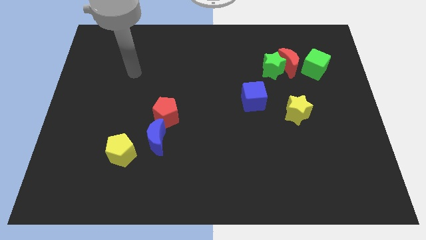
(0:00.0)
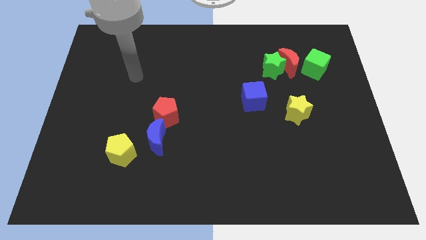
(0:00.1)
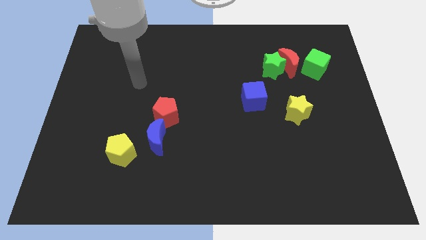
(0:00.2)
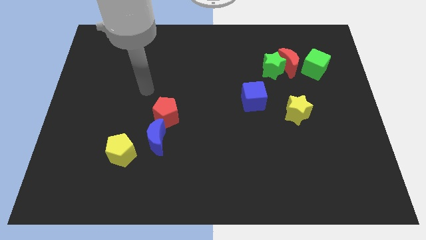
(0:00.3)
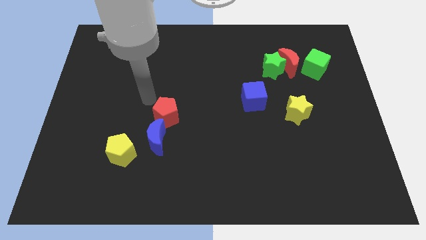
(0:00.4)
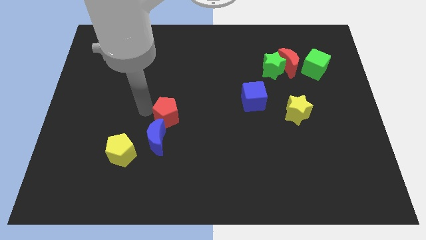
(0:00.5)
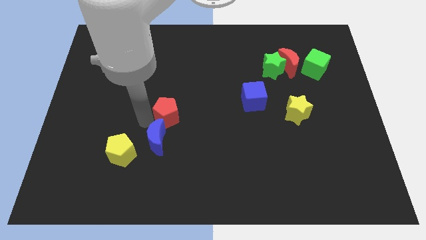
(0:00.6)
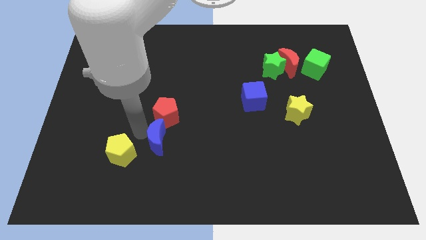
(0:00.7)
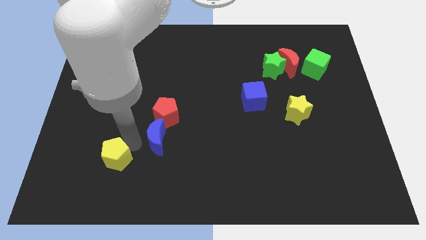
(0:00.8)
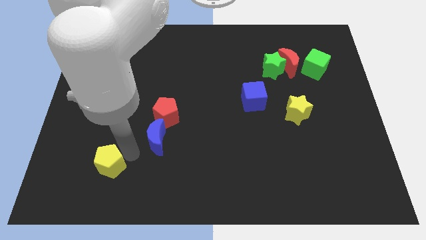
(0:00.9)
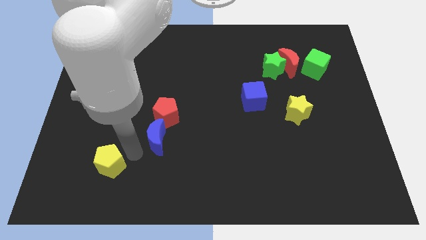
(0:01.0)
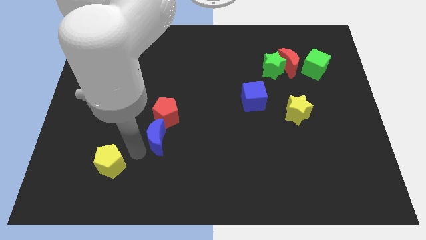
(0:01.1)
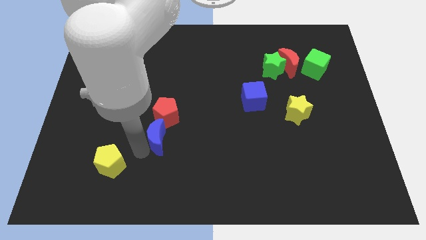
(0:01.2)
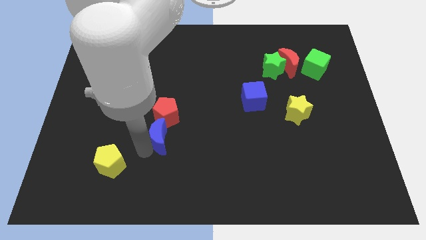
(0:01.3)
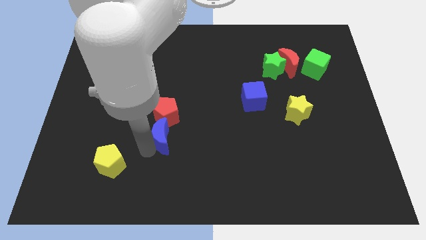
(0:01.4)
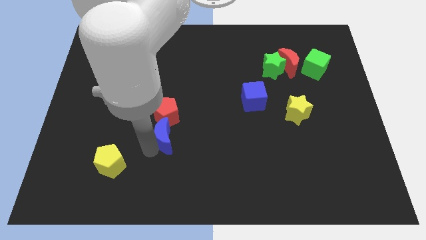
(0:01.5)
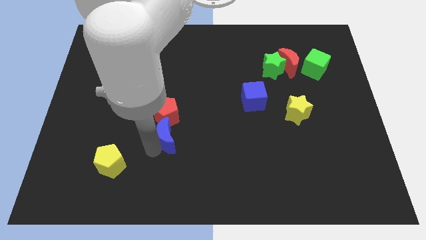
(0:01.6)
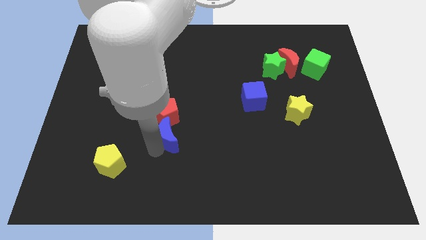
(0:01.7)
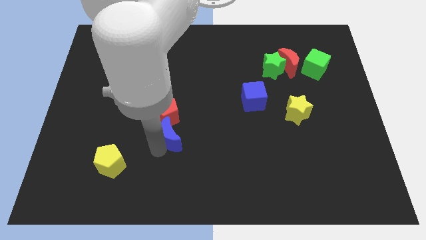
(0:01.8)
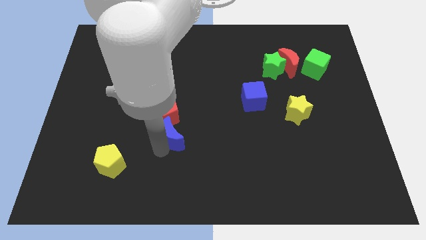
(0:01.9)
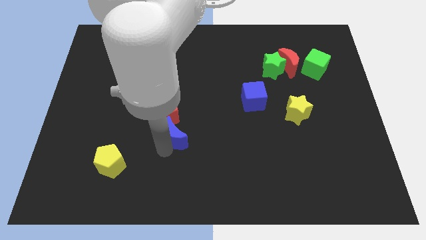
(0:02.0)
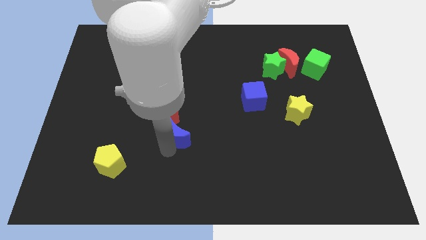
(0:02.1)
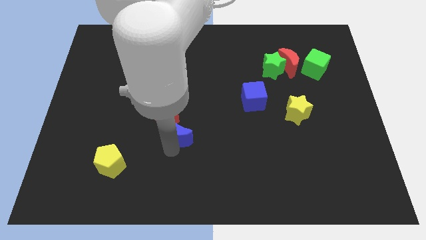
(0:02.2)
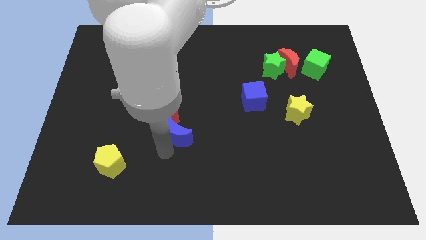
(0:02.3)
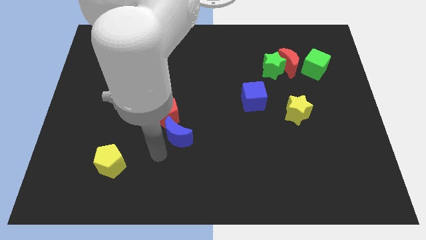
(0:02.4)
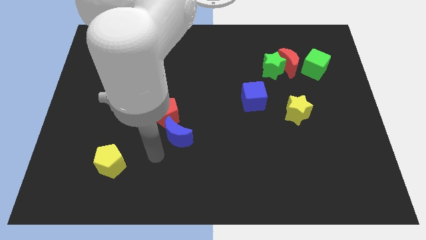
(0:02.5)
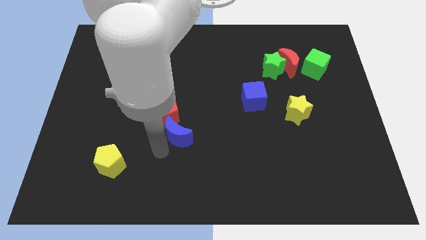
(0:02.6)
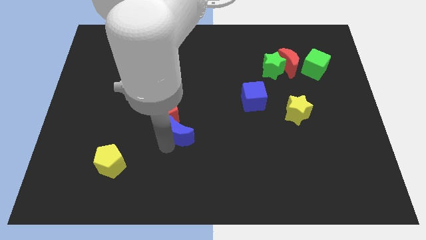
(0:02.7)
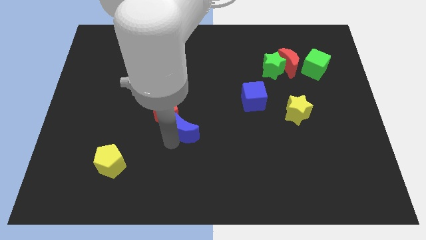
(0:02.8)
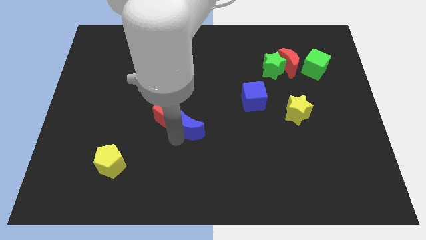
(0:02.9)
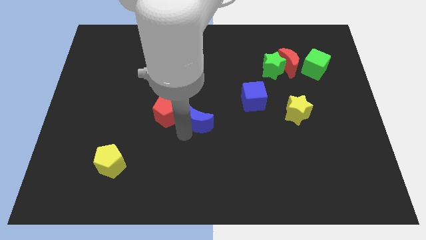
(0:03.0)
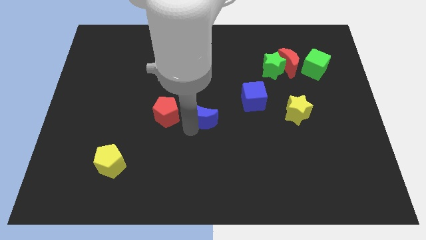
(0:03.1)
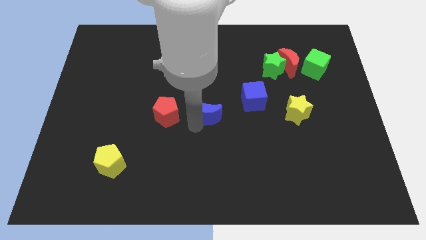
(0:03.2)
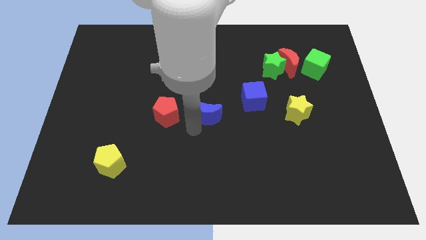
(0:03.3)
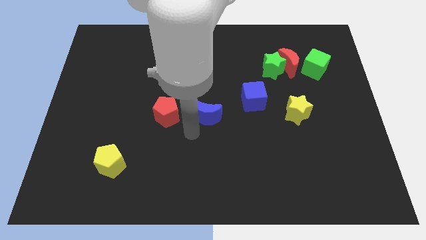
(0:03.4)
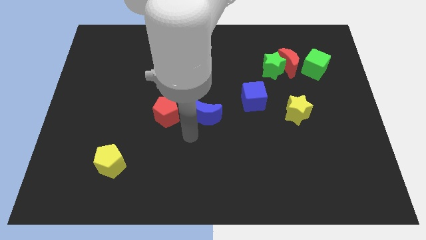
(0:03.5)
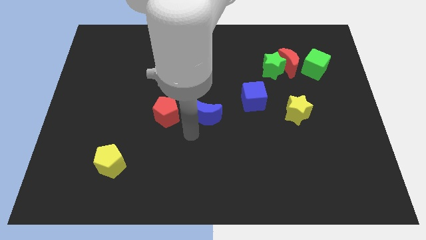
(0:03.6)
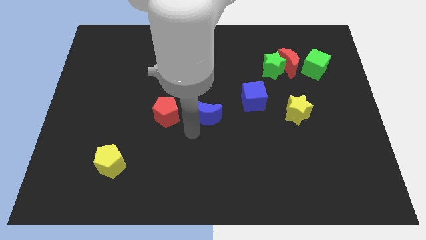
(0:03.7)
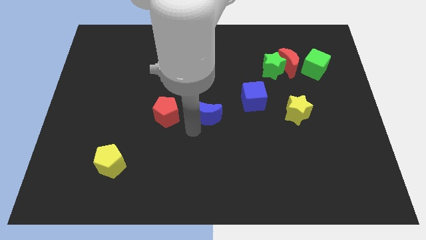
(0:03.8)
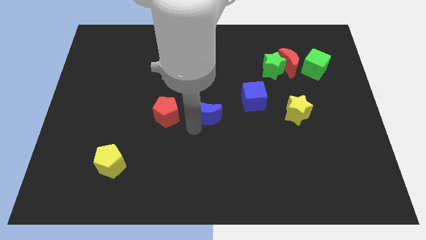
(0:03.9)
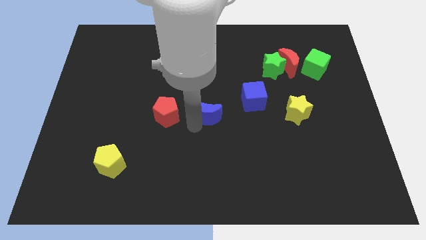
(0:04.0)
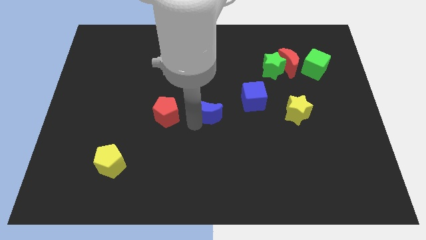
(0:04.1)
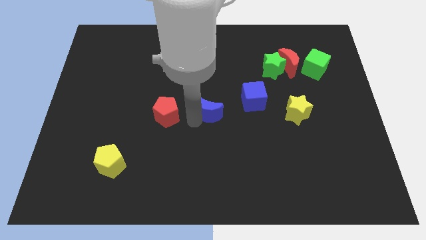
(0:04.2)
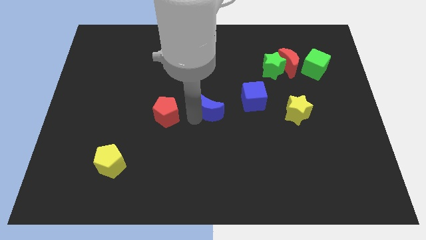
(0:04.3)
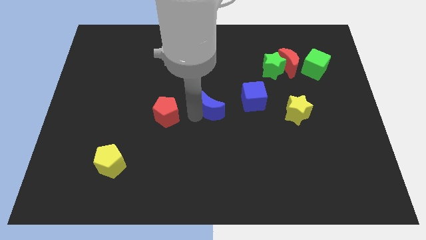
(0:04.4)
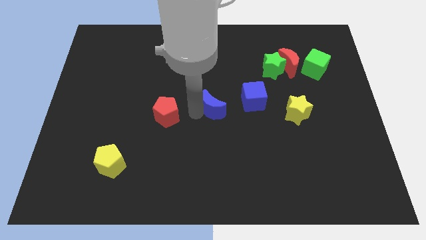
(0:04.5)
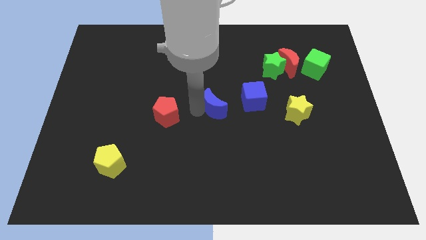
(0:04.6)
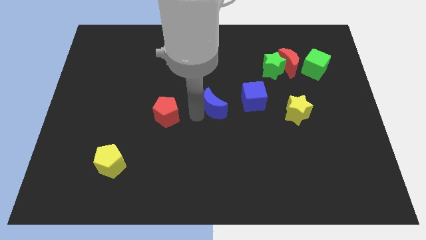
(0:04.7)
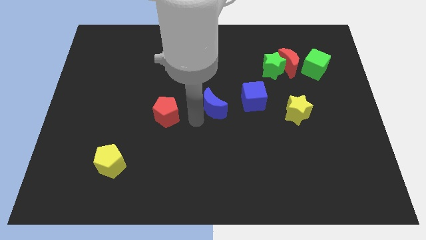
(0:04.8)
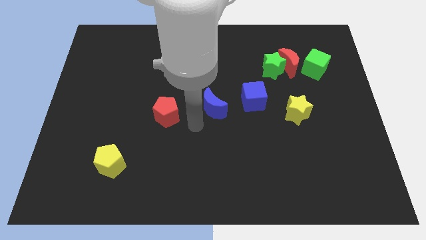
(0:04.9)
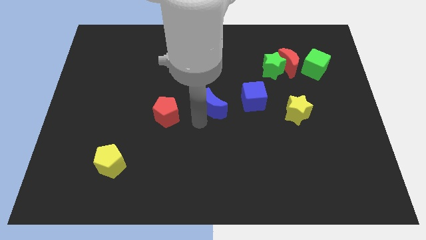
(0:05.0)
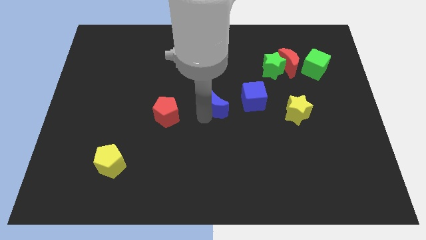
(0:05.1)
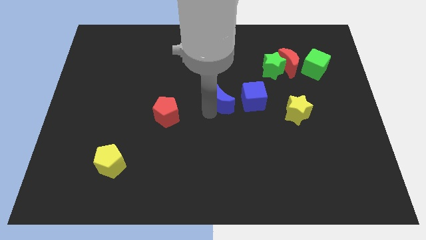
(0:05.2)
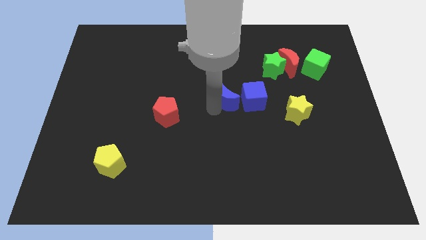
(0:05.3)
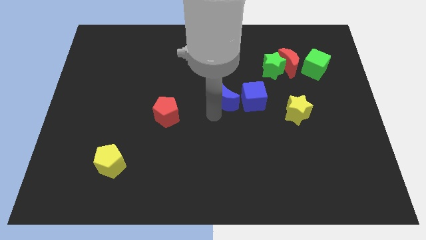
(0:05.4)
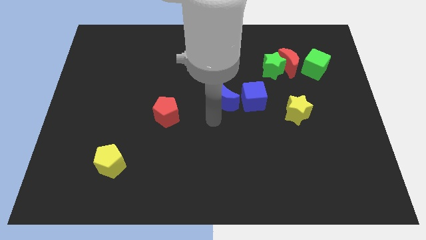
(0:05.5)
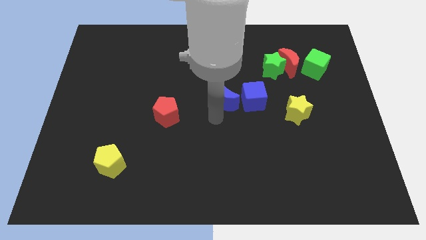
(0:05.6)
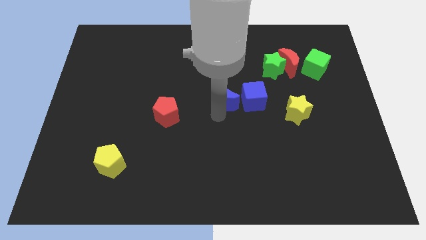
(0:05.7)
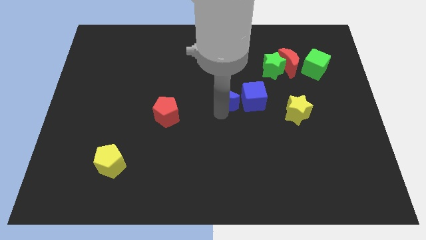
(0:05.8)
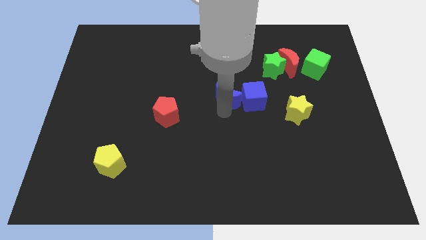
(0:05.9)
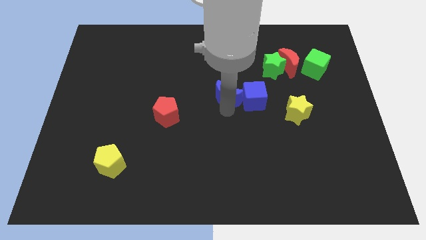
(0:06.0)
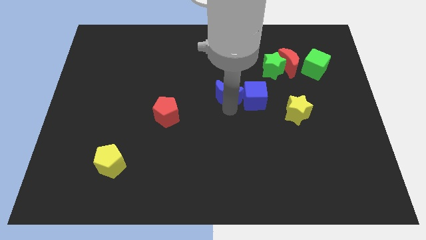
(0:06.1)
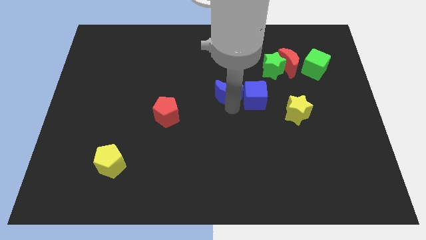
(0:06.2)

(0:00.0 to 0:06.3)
move the blue moon up and right diagonally

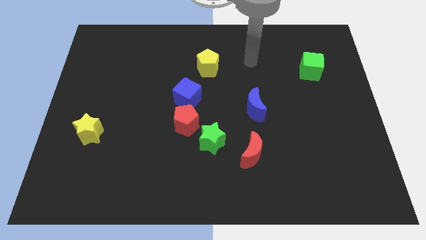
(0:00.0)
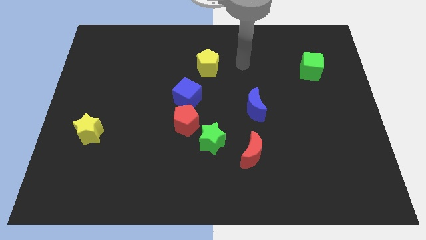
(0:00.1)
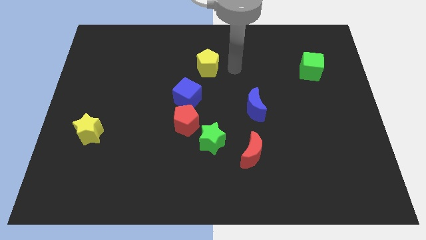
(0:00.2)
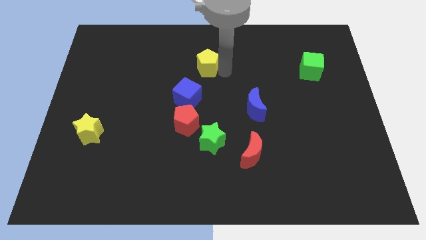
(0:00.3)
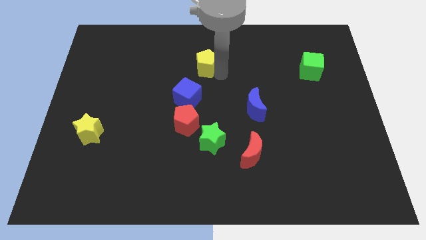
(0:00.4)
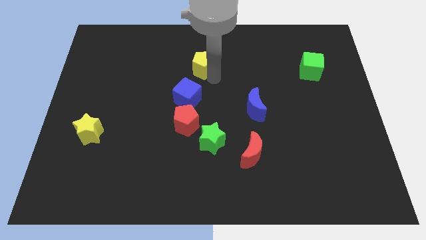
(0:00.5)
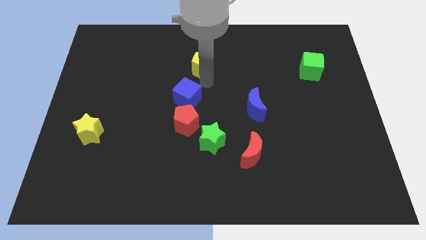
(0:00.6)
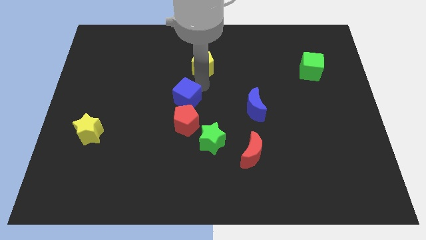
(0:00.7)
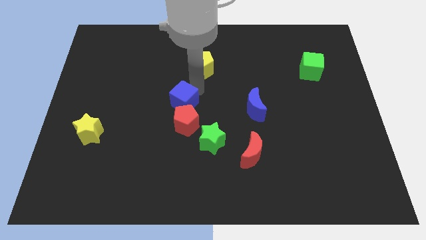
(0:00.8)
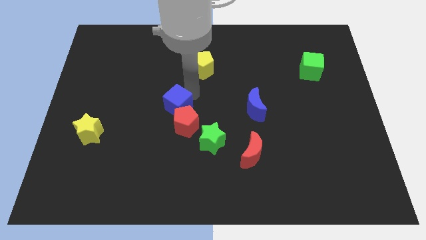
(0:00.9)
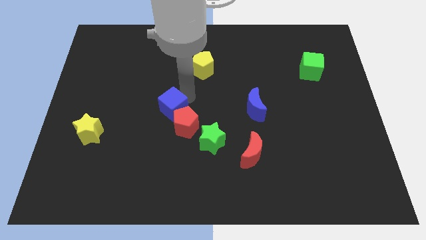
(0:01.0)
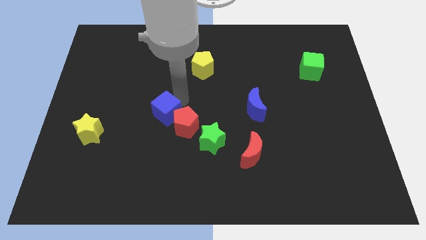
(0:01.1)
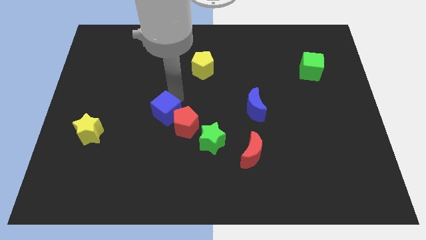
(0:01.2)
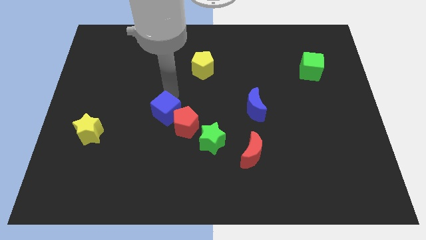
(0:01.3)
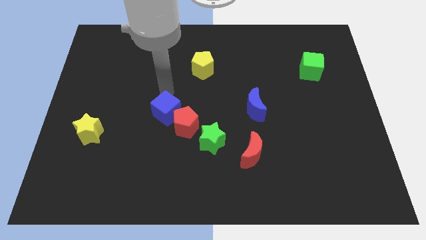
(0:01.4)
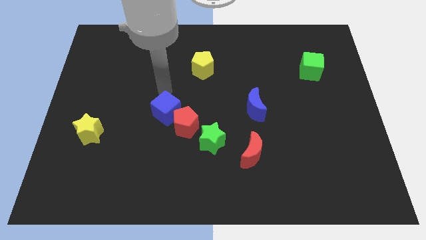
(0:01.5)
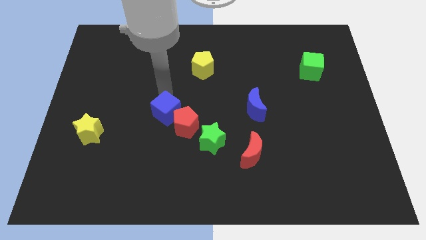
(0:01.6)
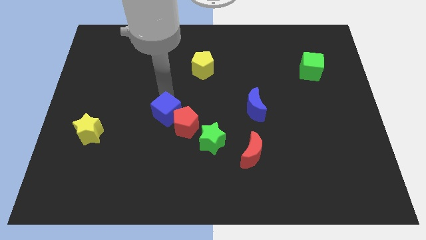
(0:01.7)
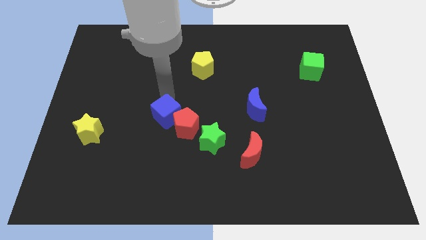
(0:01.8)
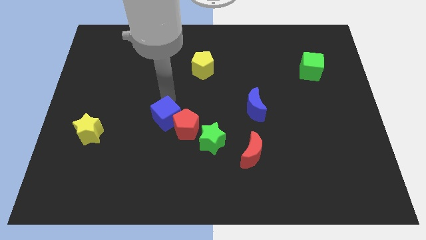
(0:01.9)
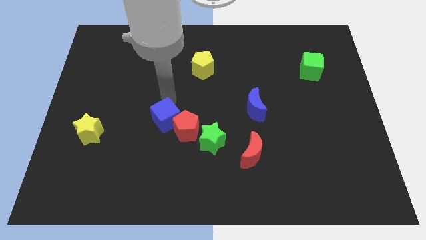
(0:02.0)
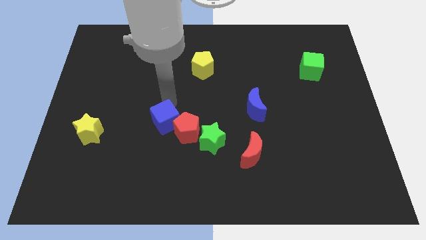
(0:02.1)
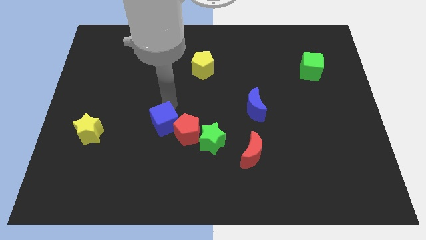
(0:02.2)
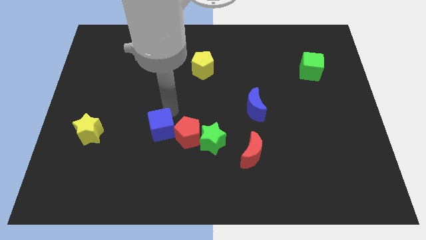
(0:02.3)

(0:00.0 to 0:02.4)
move the blue cube a little downwards
